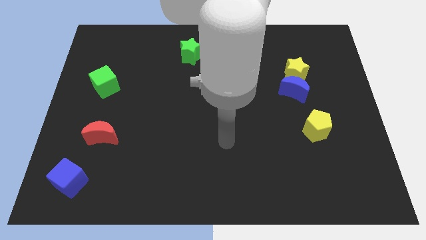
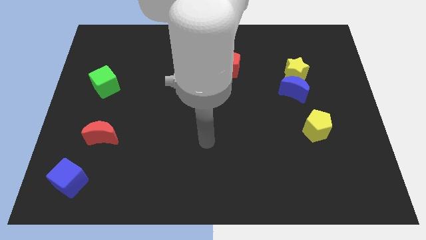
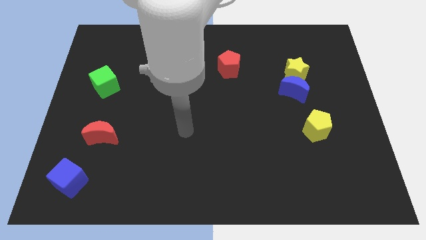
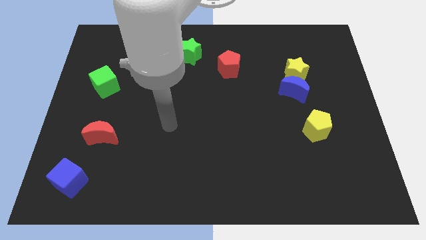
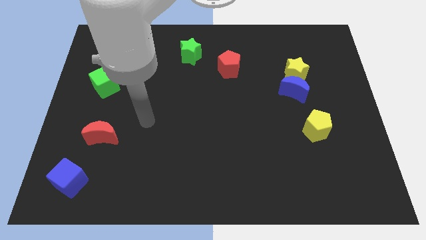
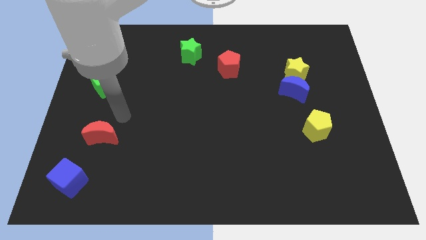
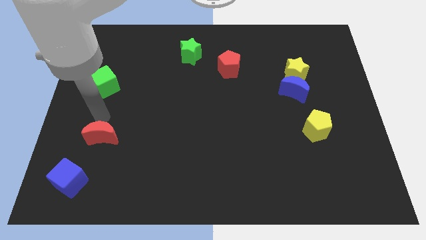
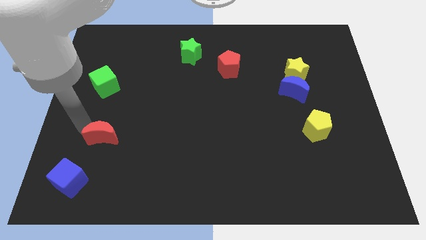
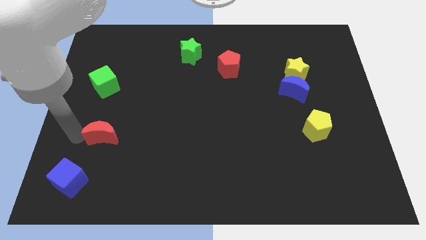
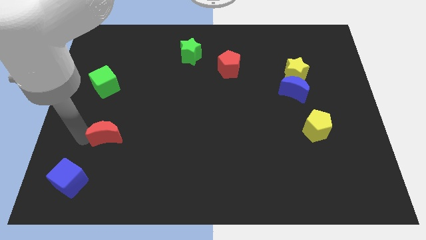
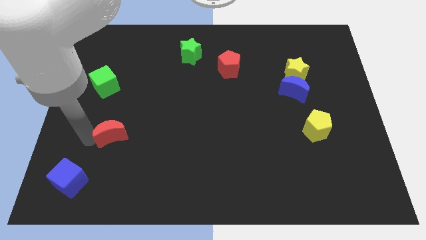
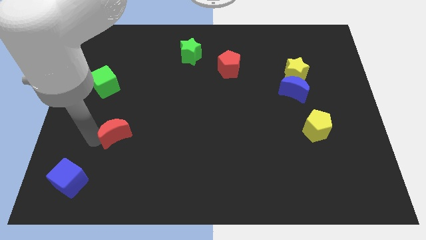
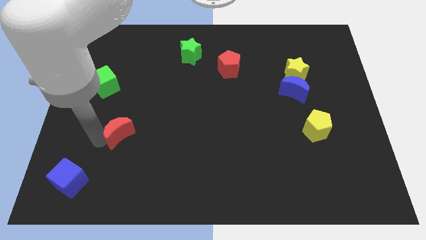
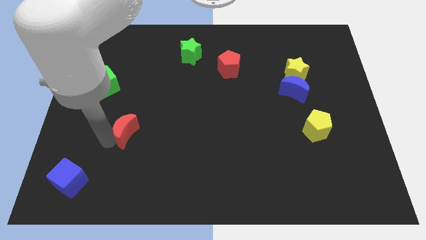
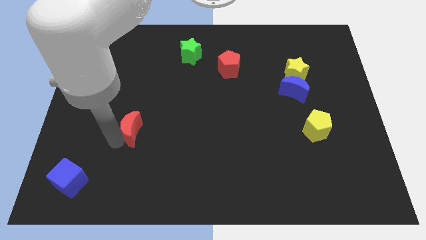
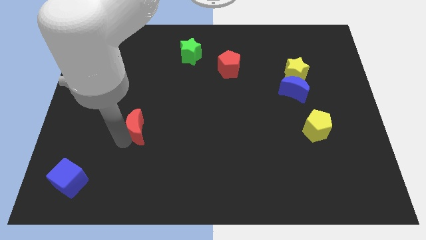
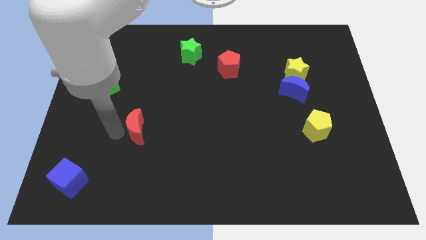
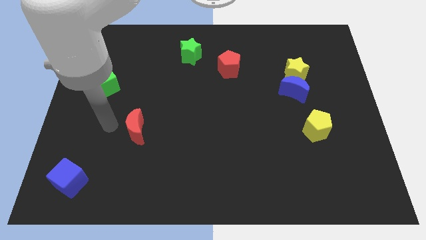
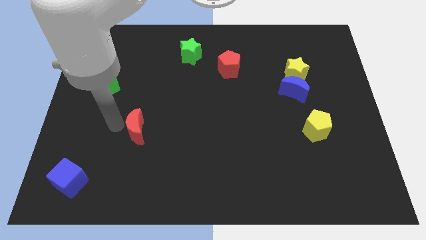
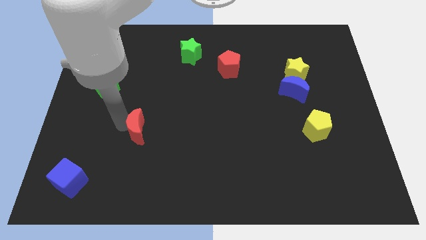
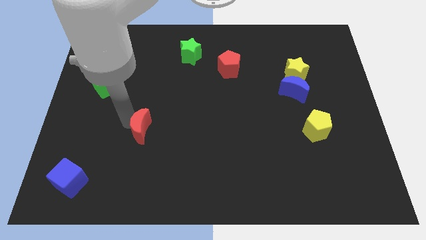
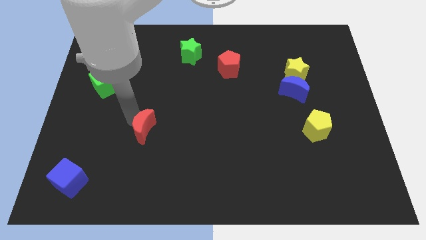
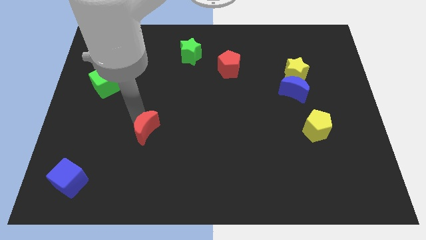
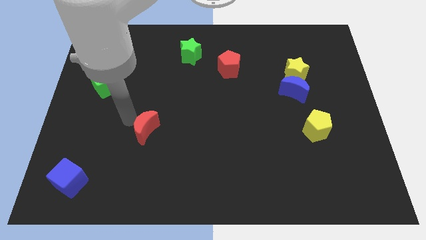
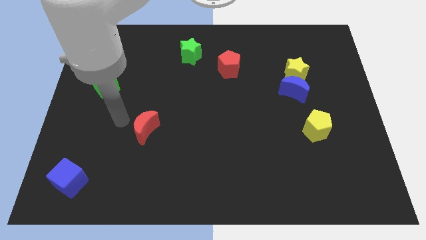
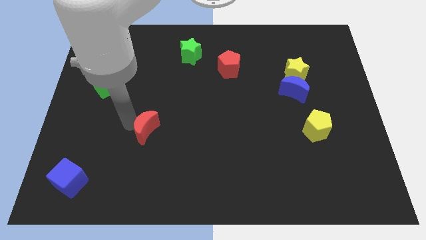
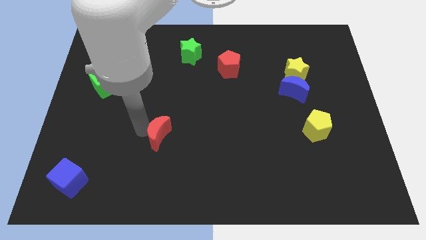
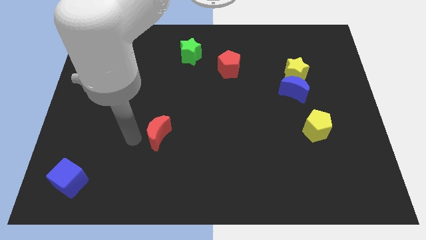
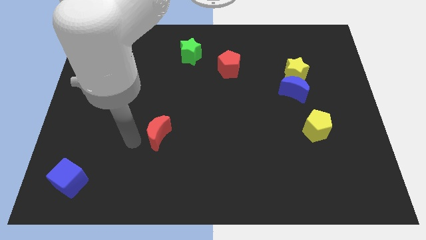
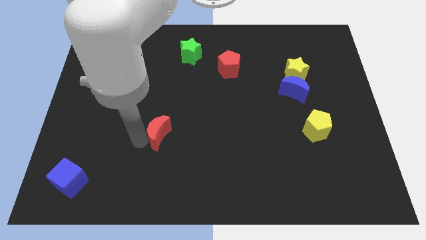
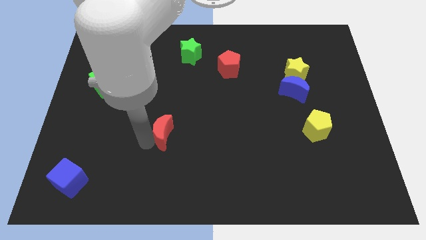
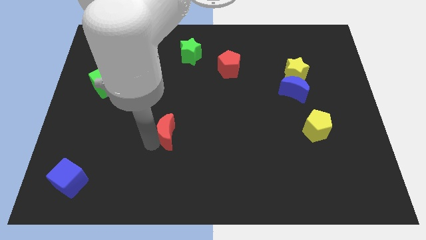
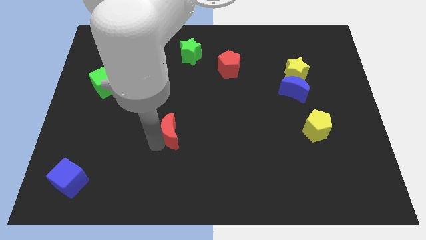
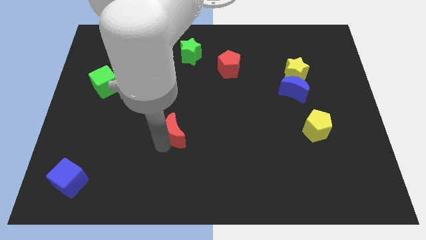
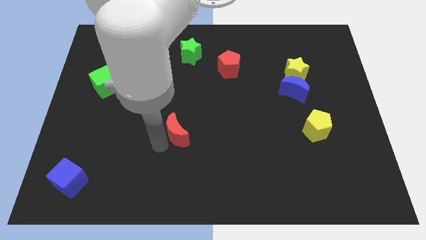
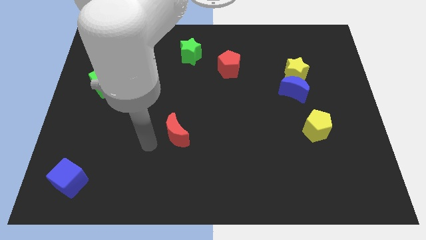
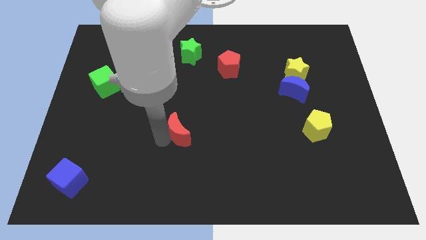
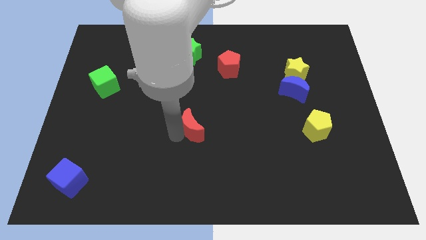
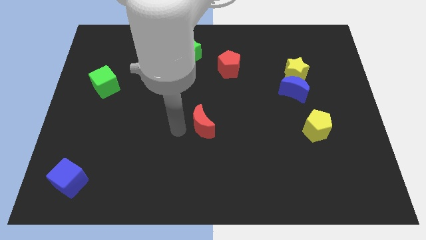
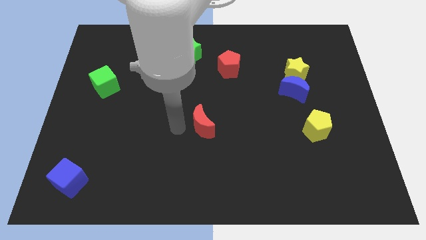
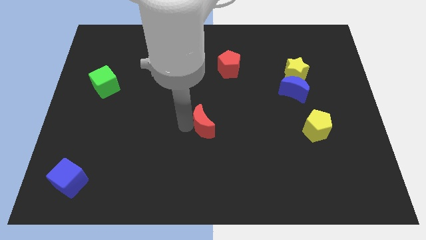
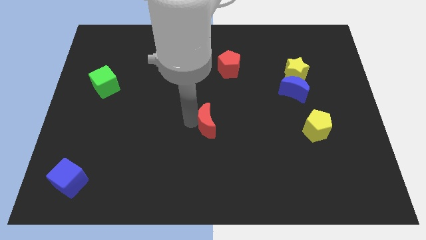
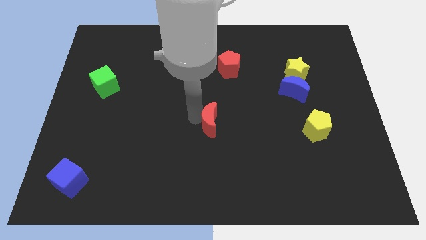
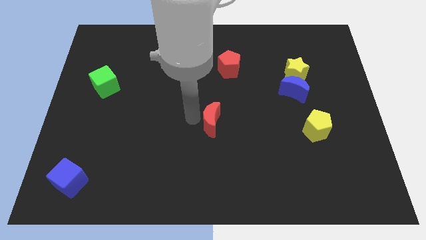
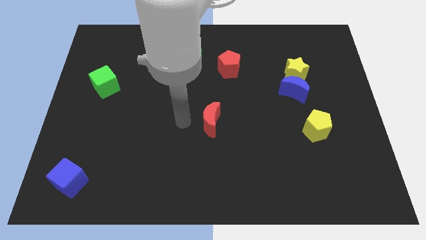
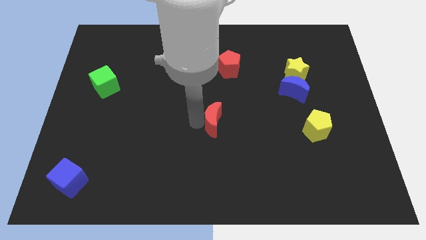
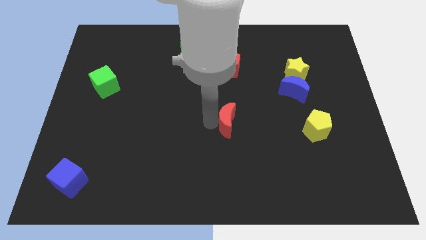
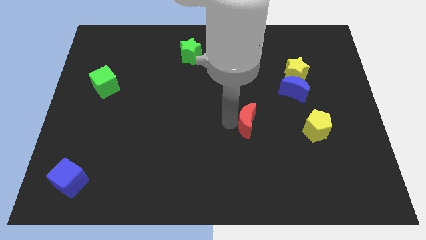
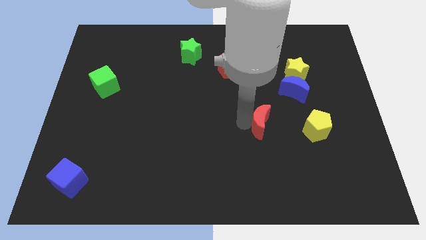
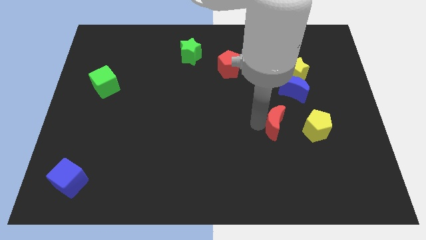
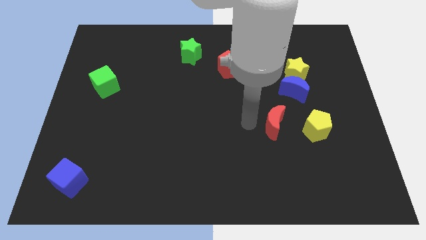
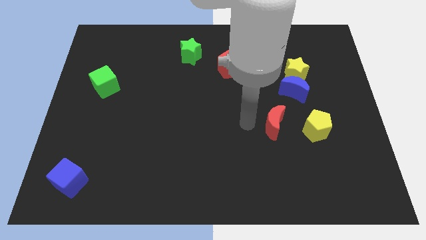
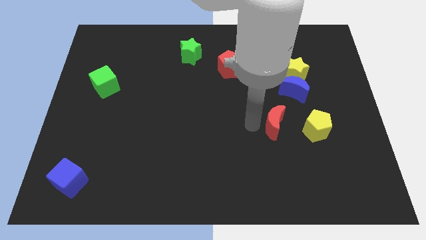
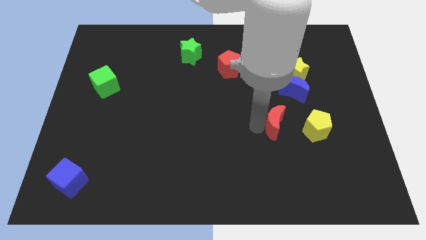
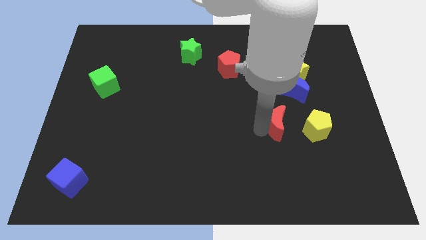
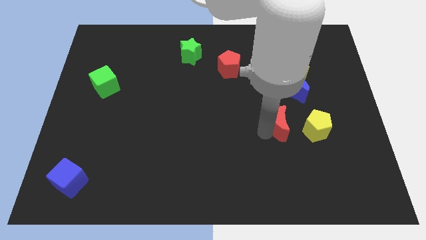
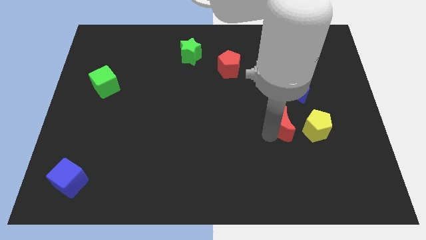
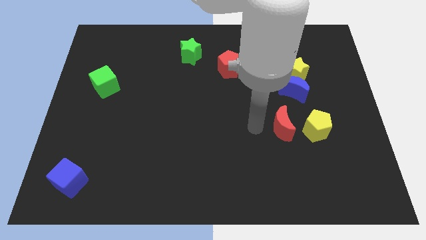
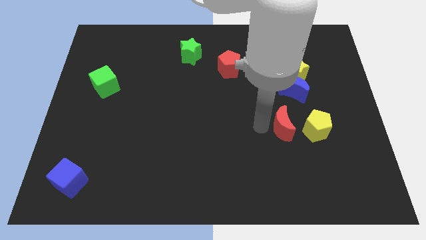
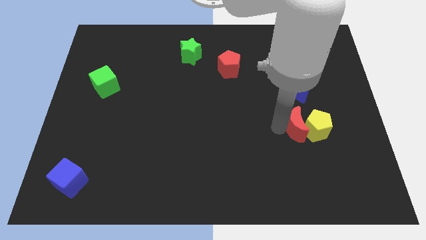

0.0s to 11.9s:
put the red moon close to the yellow pentagon

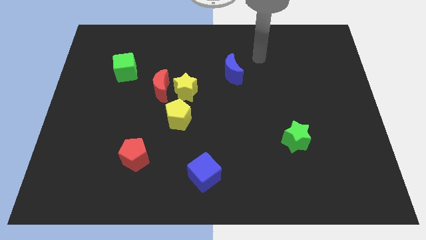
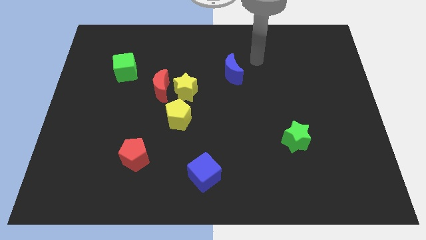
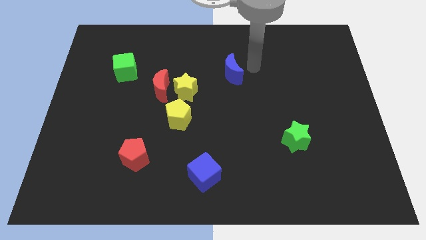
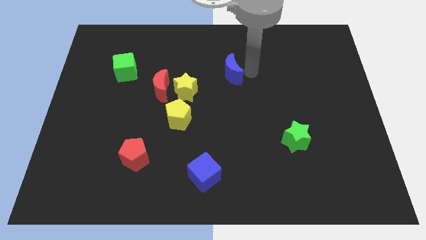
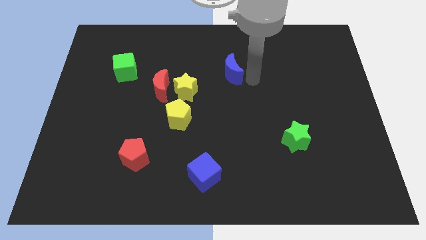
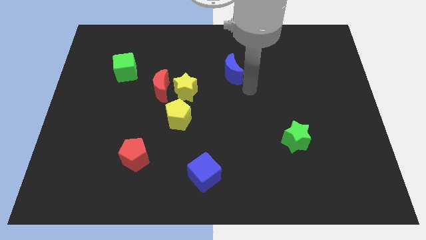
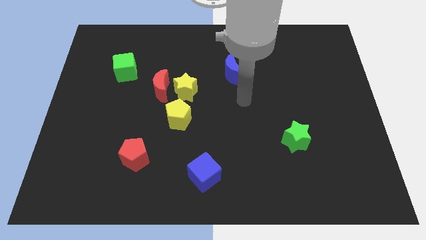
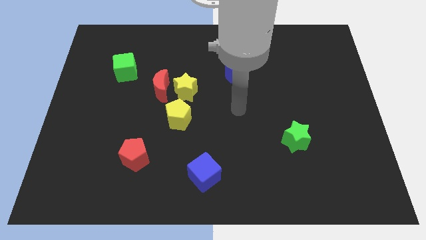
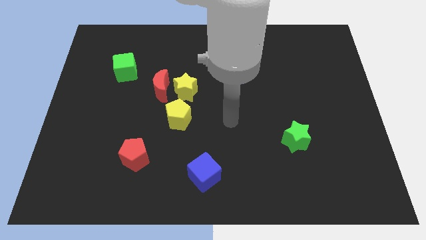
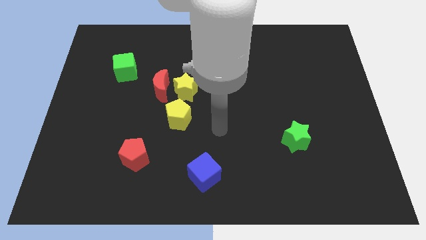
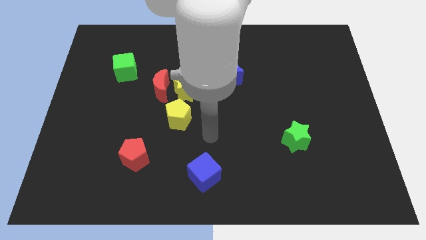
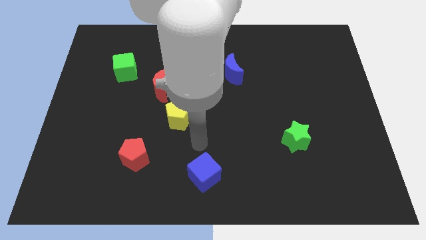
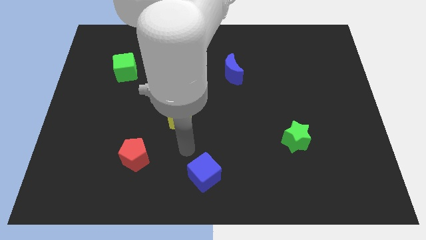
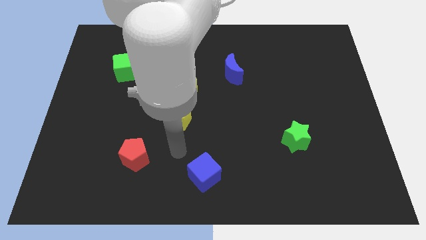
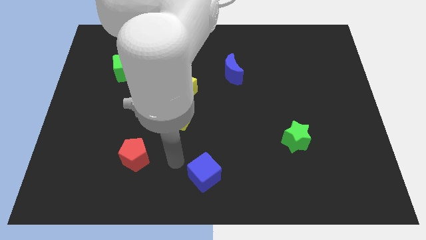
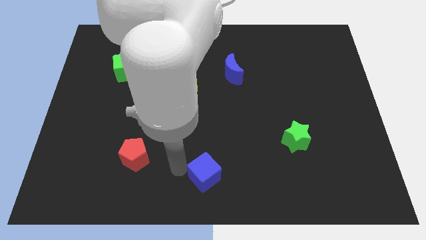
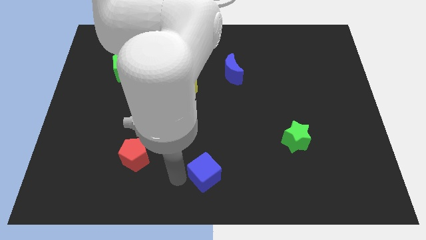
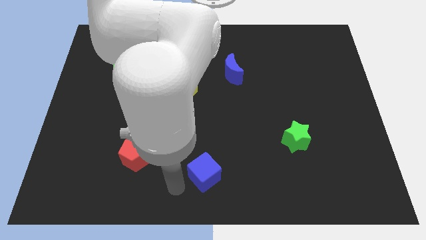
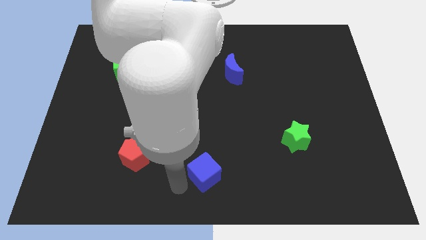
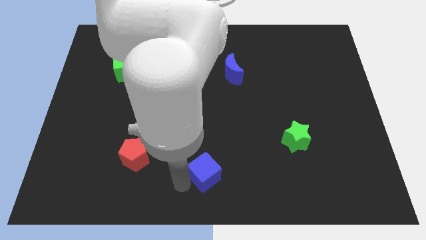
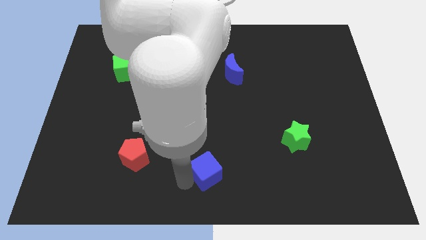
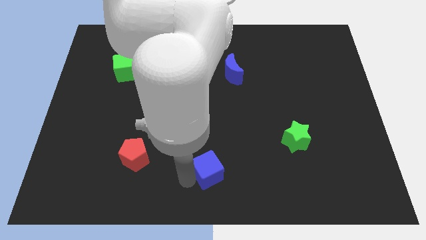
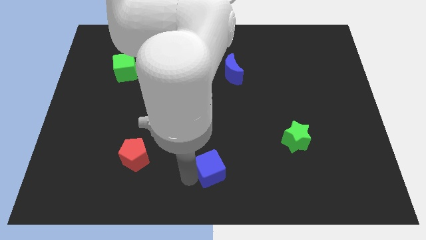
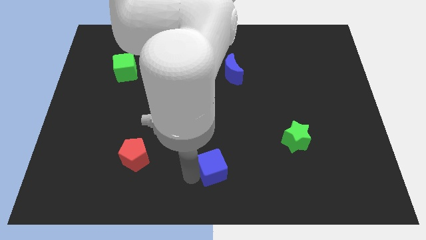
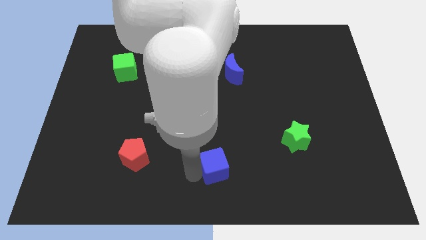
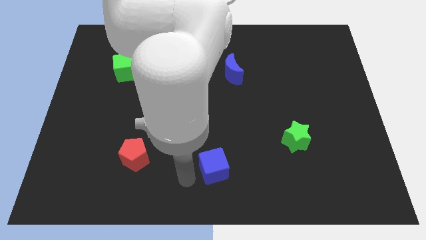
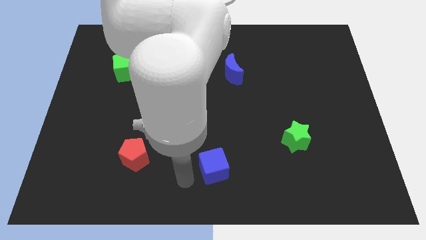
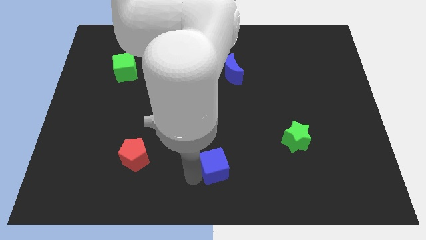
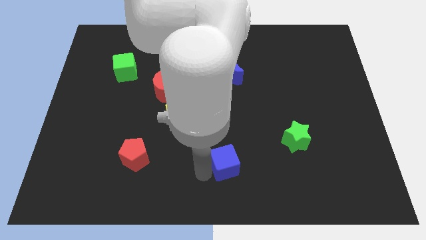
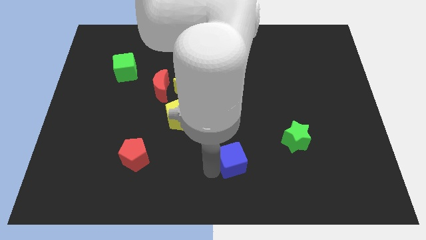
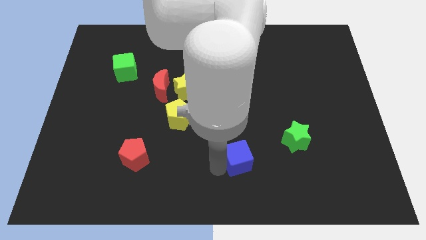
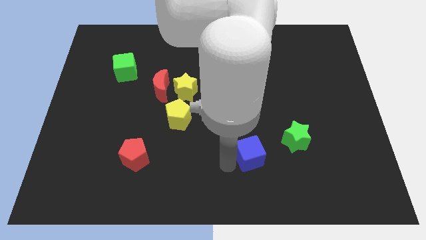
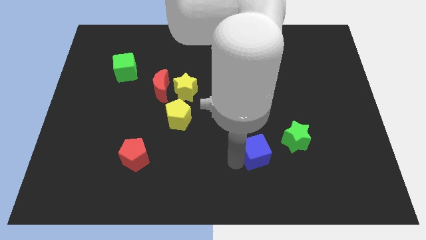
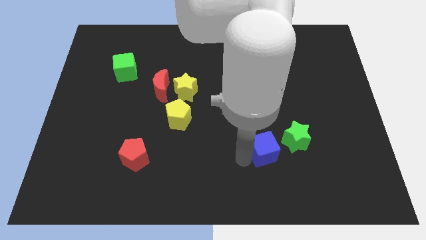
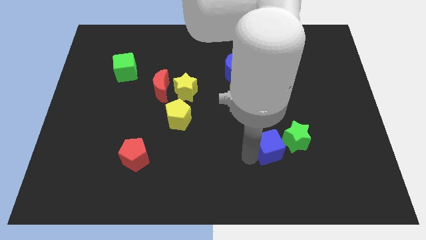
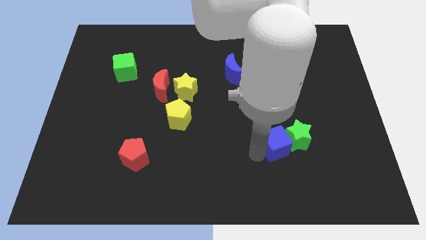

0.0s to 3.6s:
push the blue cube to the green star
